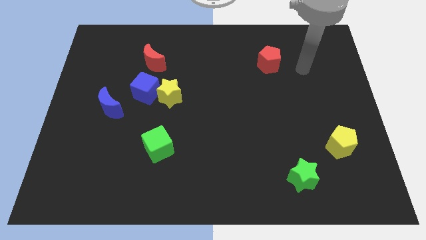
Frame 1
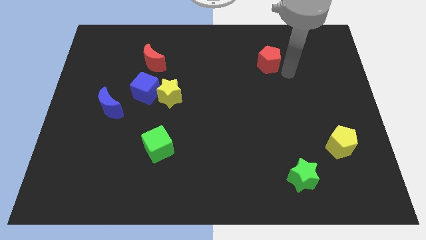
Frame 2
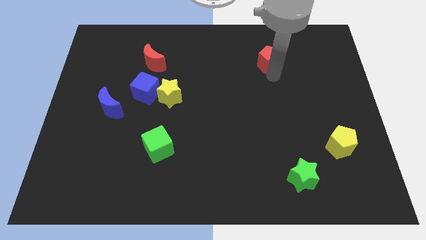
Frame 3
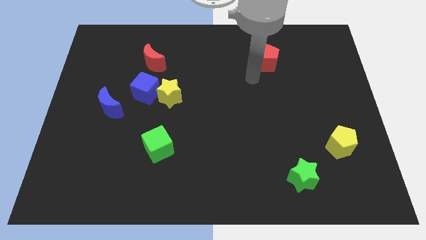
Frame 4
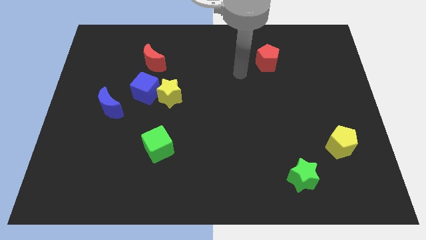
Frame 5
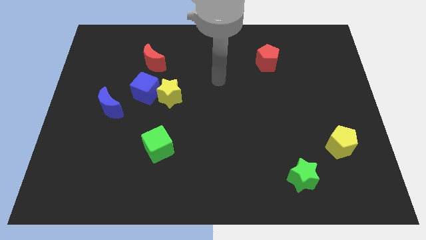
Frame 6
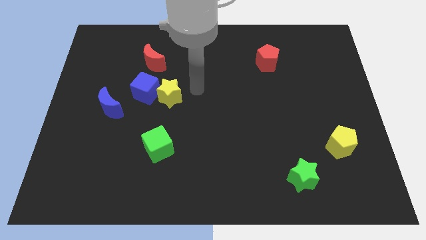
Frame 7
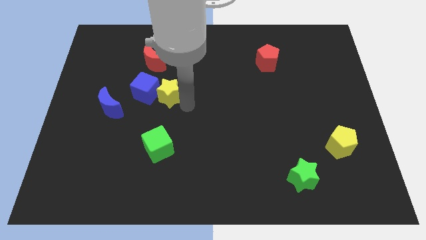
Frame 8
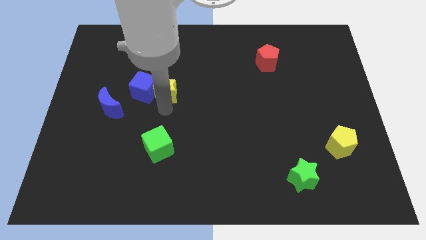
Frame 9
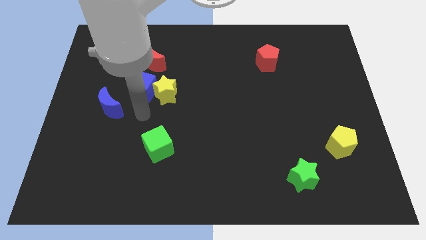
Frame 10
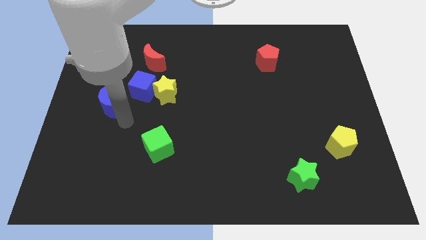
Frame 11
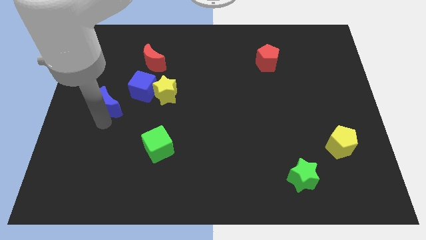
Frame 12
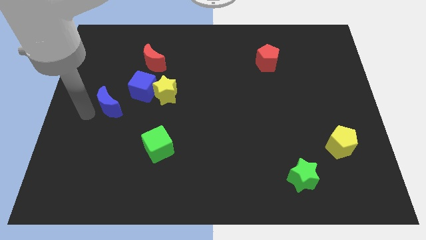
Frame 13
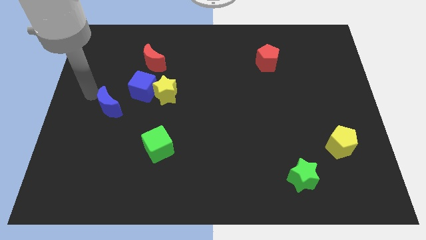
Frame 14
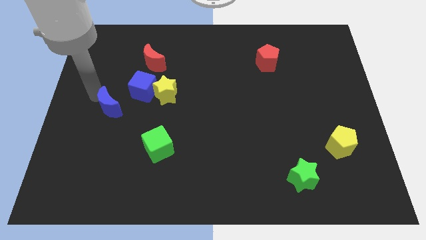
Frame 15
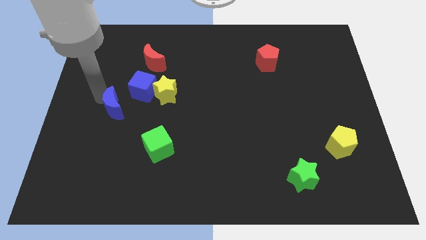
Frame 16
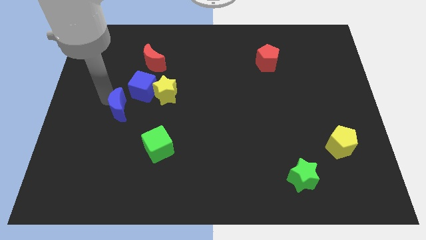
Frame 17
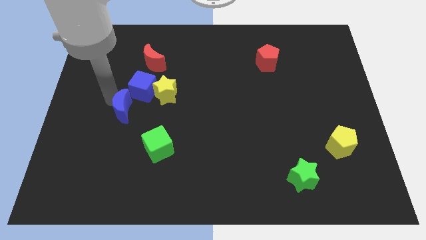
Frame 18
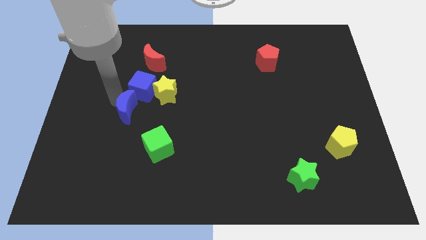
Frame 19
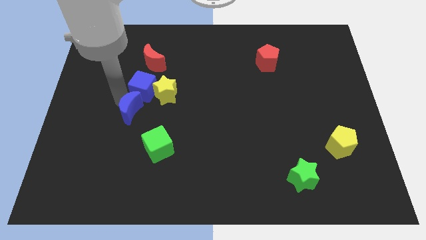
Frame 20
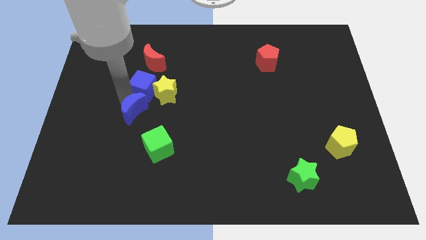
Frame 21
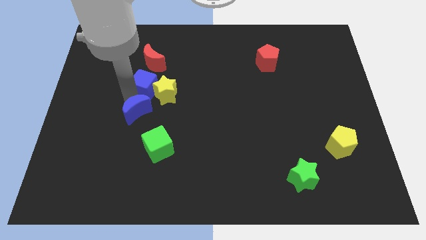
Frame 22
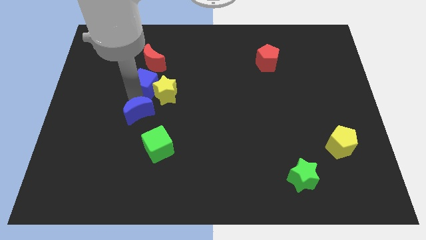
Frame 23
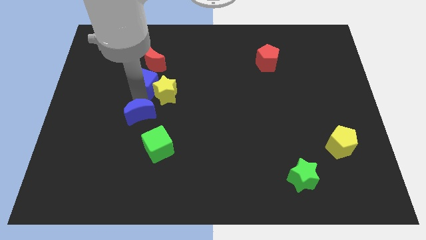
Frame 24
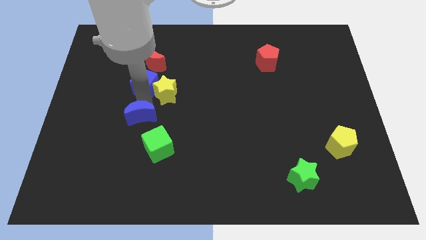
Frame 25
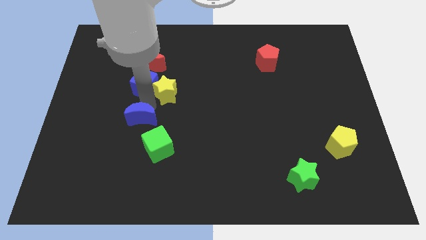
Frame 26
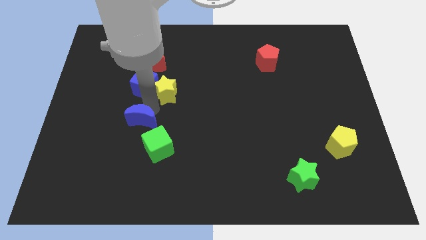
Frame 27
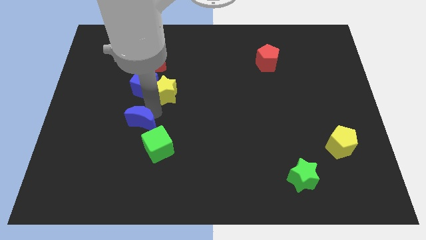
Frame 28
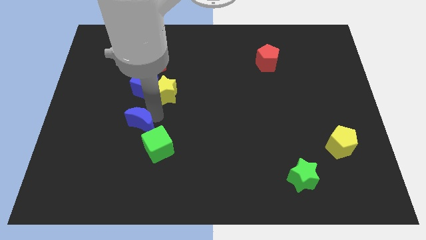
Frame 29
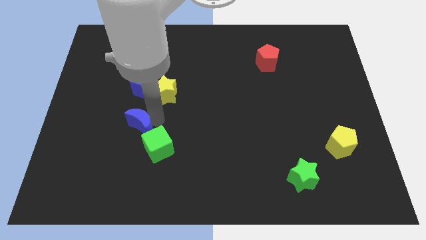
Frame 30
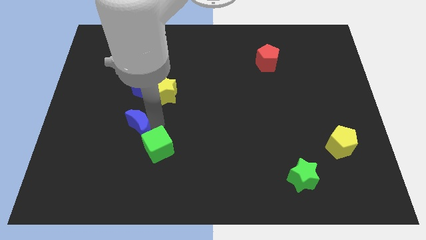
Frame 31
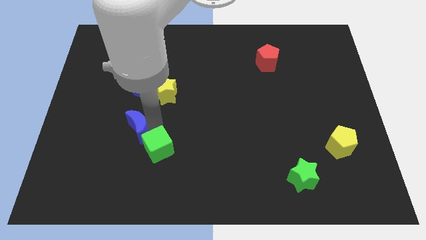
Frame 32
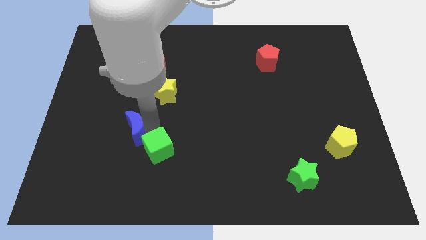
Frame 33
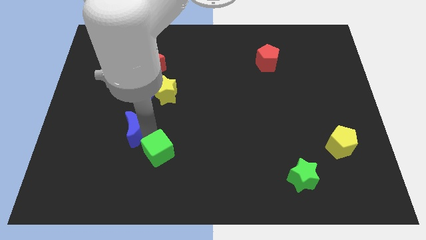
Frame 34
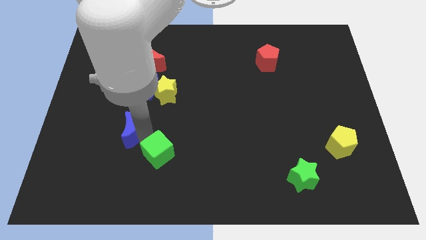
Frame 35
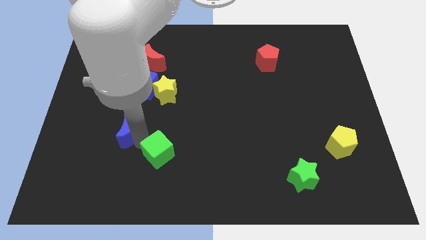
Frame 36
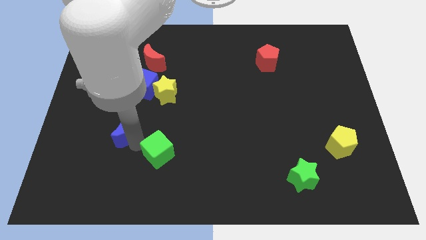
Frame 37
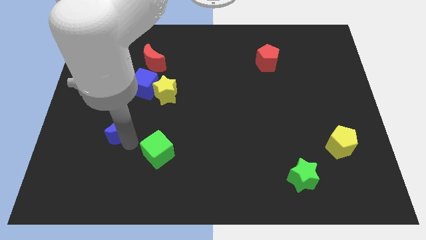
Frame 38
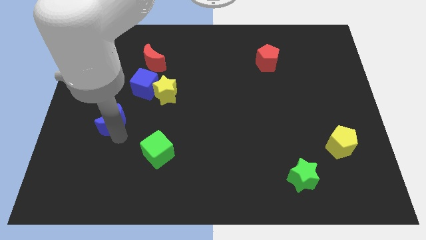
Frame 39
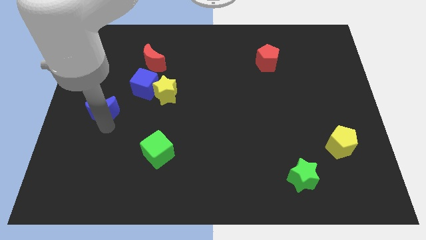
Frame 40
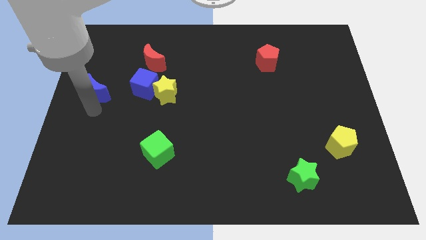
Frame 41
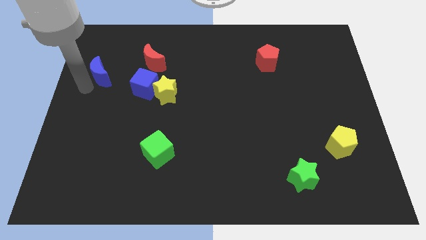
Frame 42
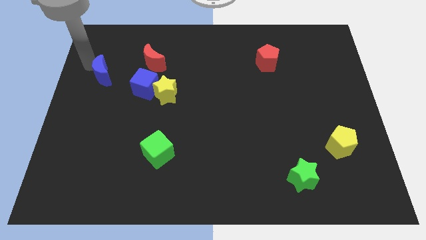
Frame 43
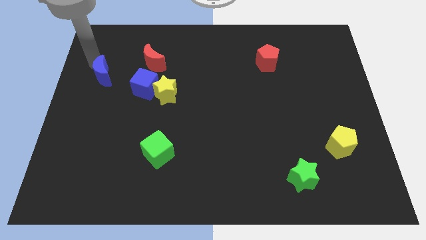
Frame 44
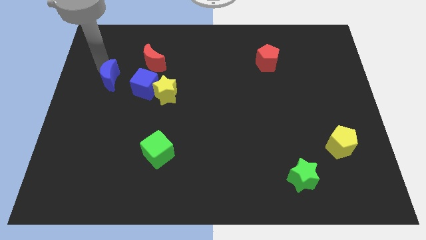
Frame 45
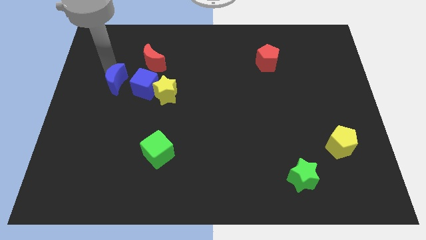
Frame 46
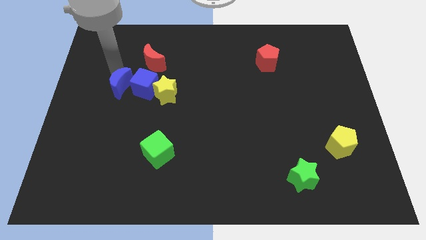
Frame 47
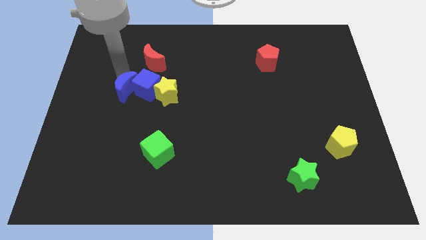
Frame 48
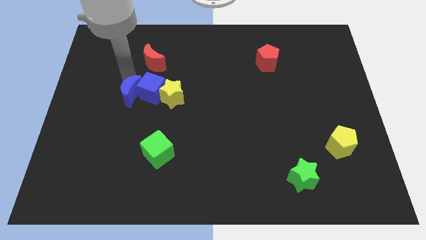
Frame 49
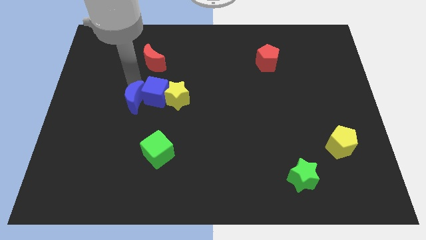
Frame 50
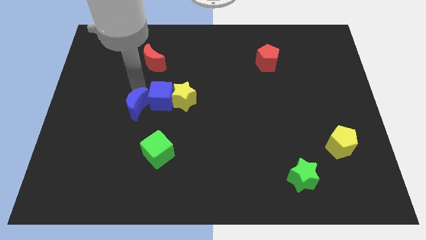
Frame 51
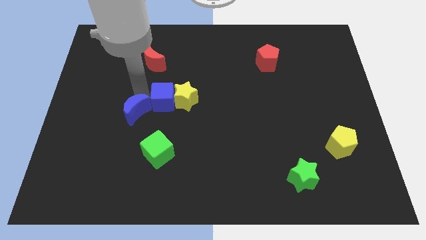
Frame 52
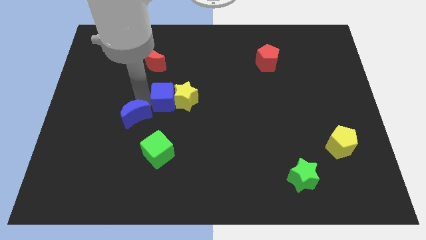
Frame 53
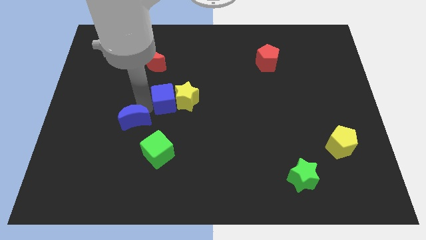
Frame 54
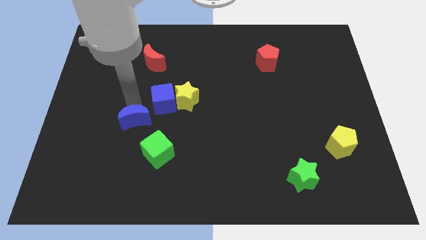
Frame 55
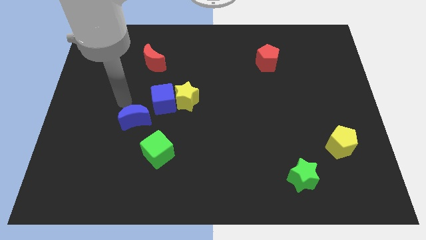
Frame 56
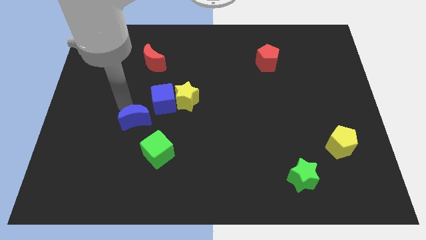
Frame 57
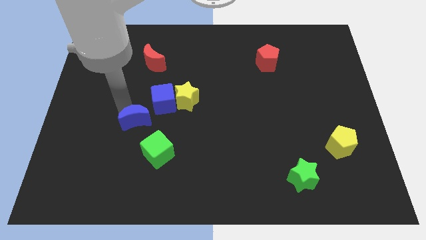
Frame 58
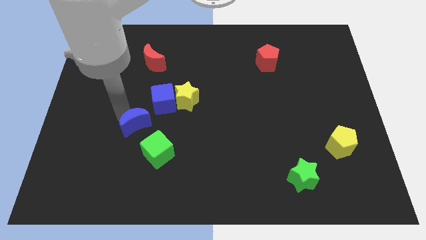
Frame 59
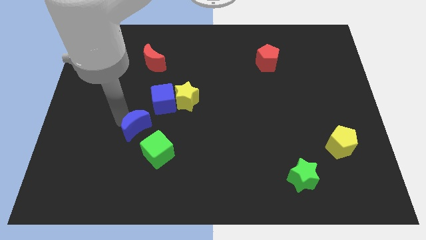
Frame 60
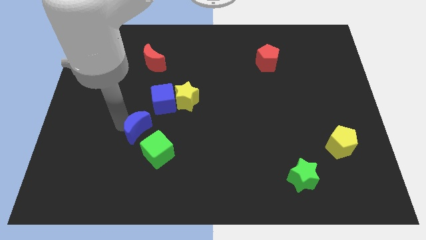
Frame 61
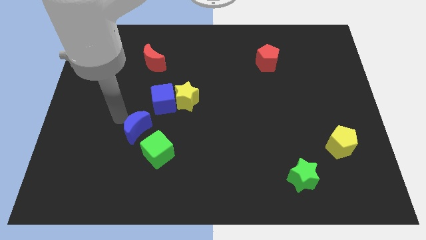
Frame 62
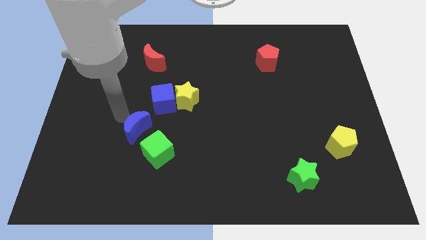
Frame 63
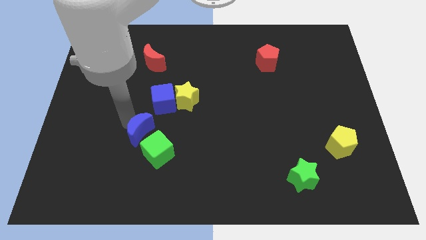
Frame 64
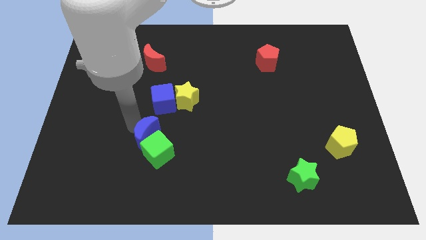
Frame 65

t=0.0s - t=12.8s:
push the blue moon next to the green cube

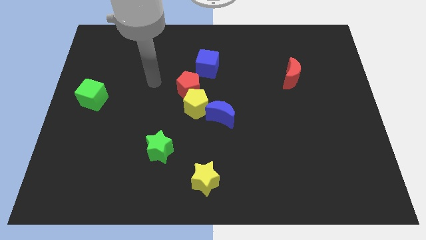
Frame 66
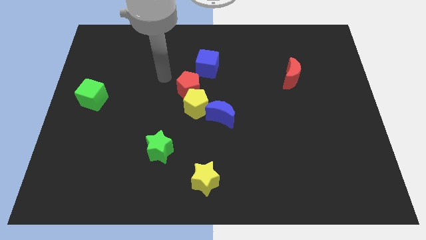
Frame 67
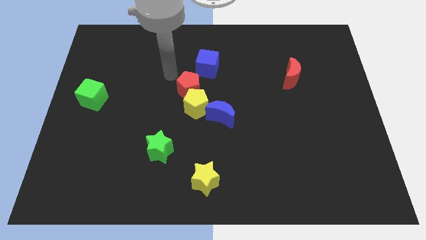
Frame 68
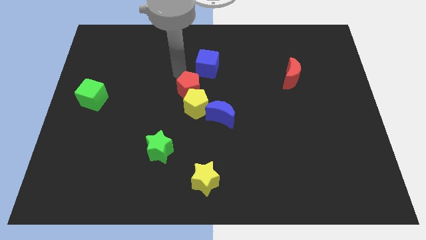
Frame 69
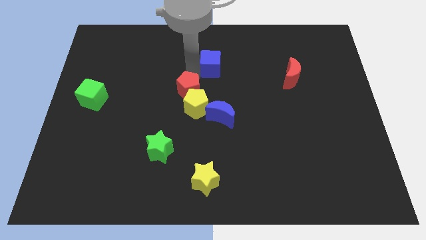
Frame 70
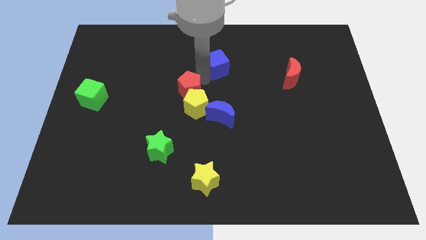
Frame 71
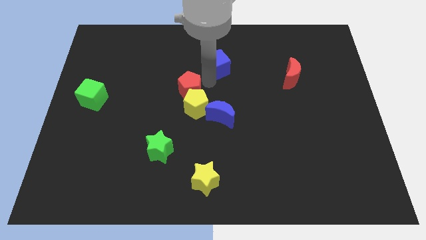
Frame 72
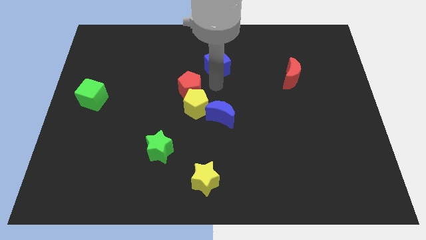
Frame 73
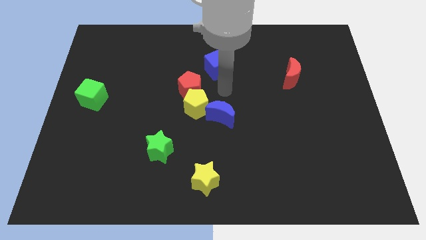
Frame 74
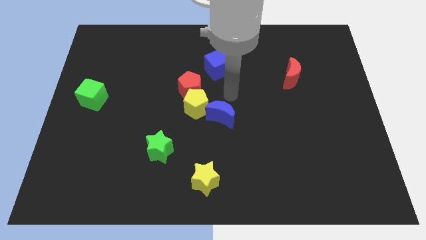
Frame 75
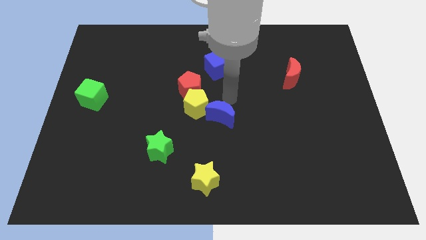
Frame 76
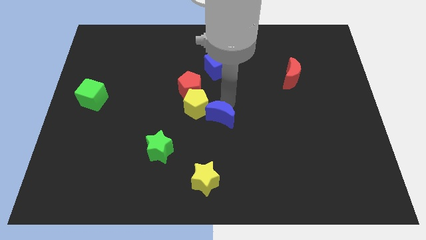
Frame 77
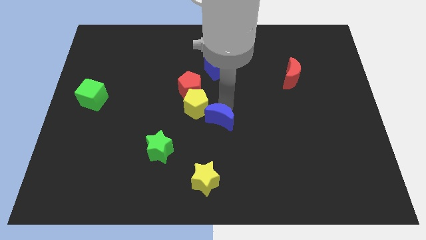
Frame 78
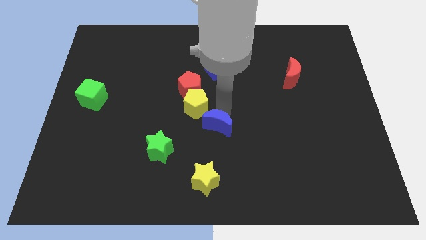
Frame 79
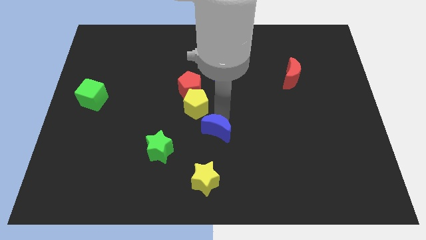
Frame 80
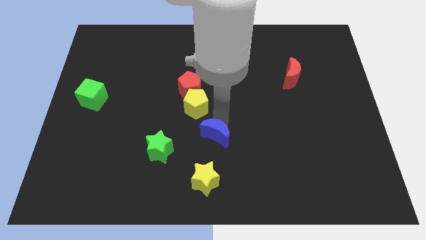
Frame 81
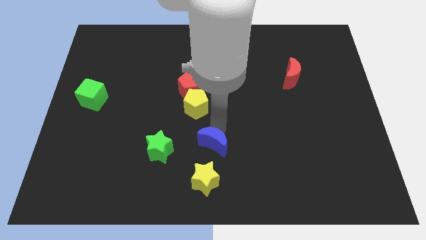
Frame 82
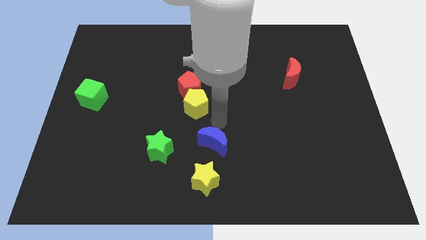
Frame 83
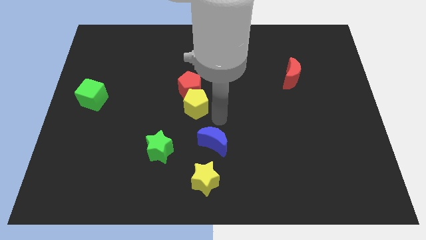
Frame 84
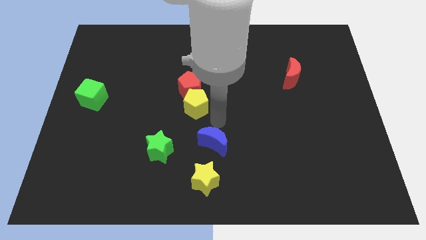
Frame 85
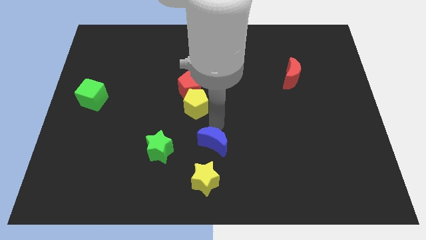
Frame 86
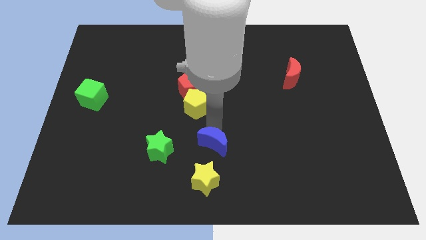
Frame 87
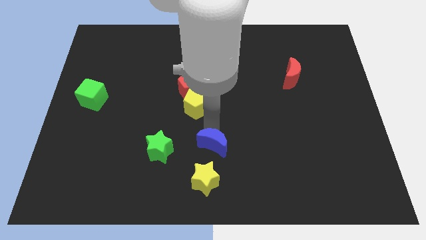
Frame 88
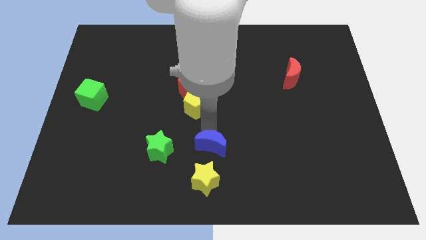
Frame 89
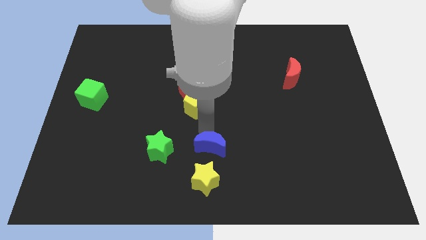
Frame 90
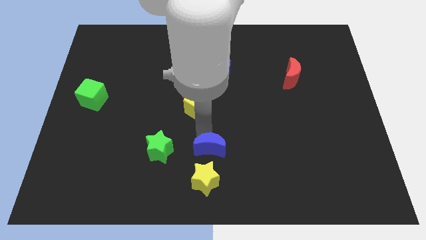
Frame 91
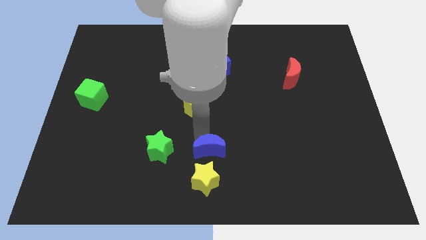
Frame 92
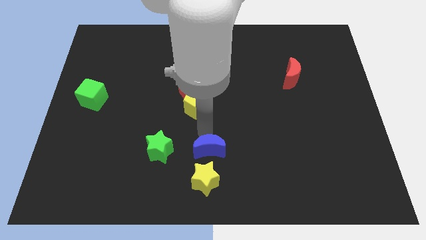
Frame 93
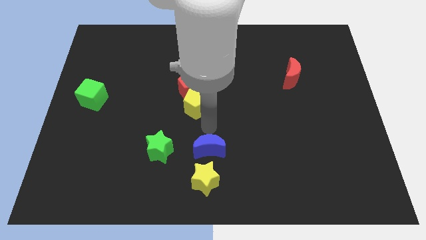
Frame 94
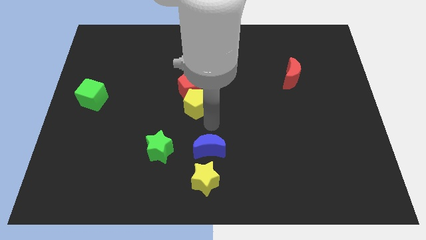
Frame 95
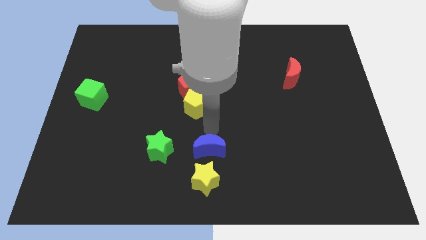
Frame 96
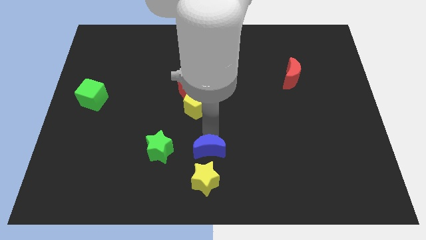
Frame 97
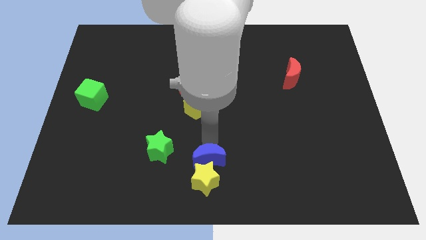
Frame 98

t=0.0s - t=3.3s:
push the blue moon next to the yellow star
